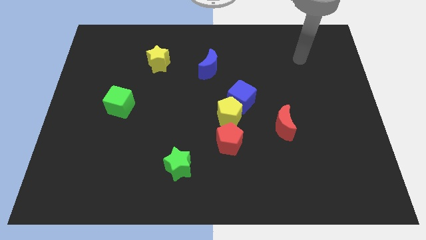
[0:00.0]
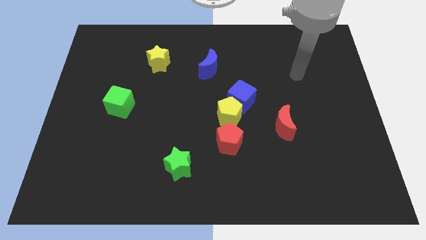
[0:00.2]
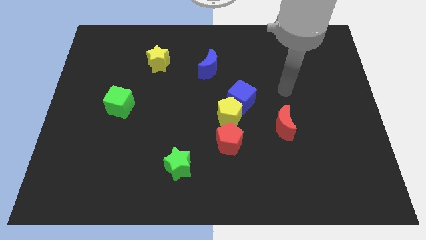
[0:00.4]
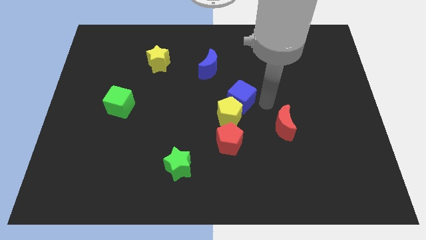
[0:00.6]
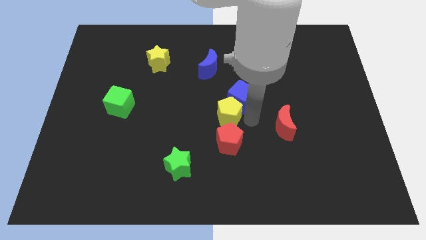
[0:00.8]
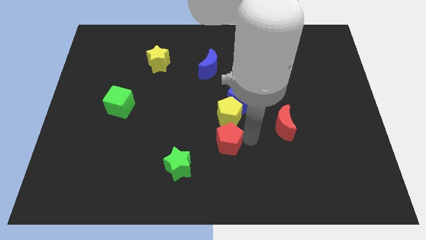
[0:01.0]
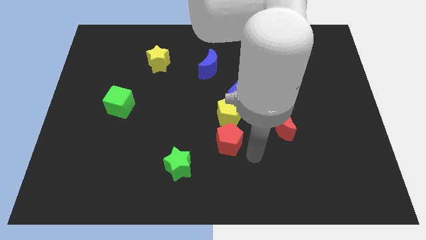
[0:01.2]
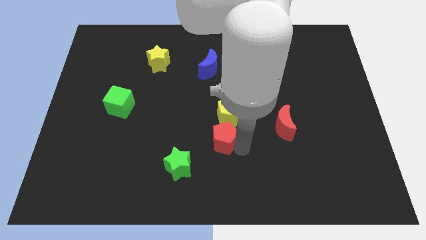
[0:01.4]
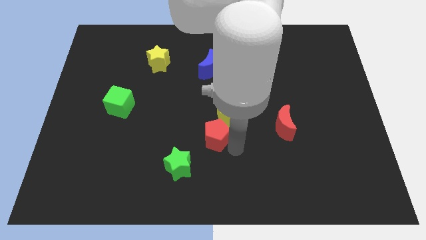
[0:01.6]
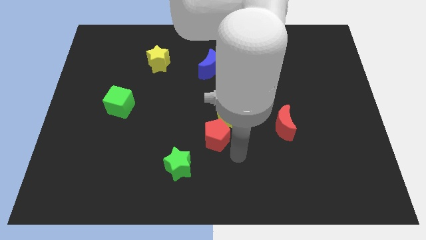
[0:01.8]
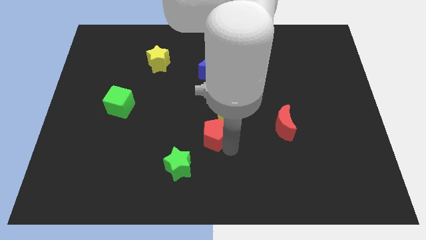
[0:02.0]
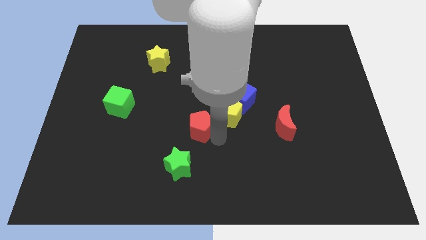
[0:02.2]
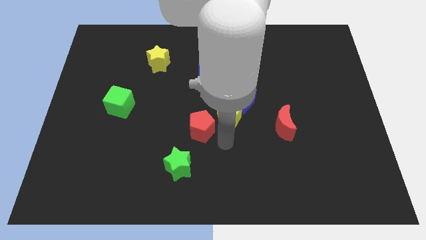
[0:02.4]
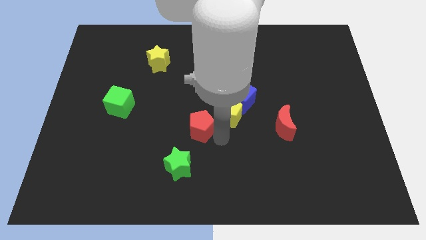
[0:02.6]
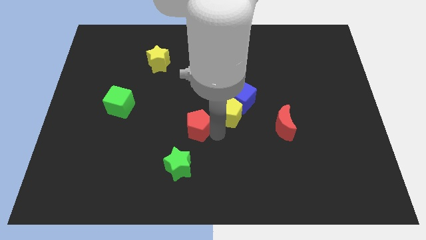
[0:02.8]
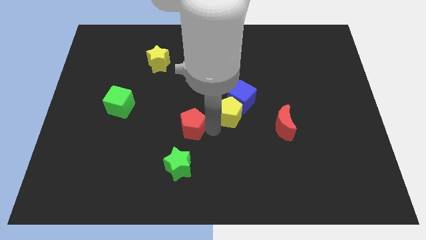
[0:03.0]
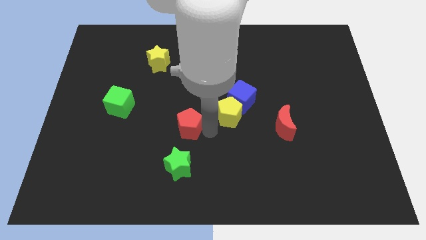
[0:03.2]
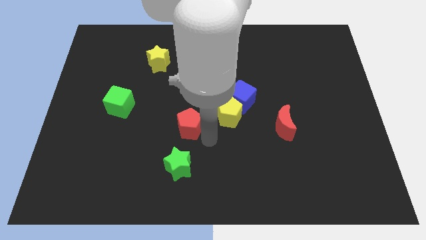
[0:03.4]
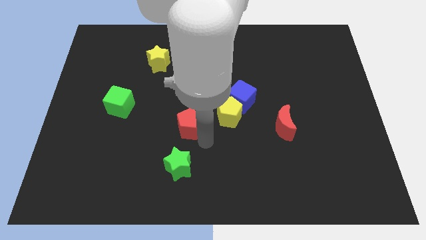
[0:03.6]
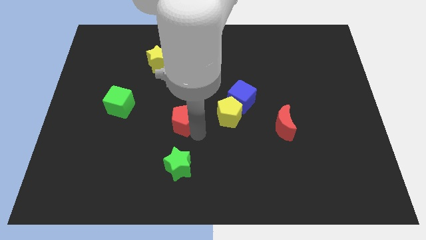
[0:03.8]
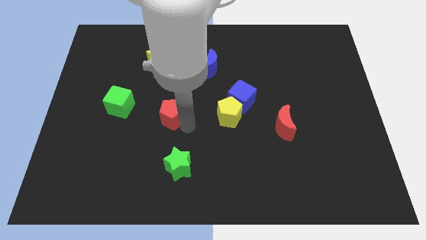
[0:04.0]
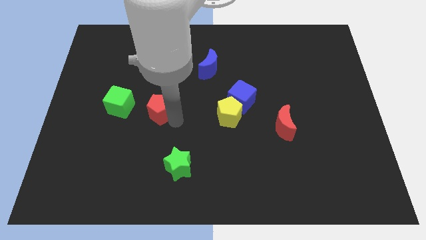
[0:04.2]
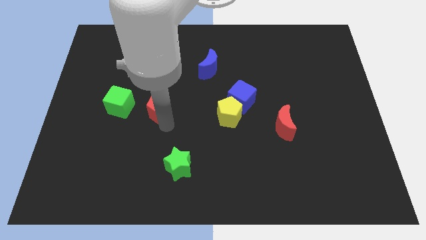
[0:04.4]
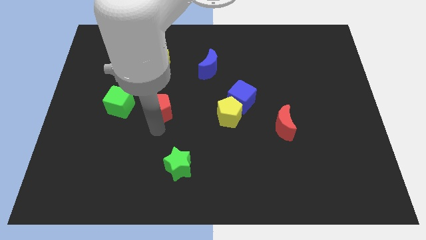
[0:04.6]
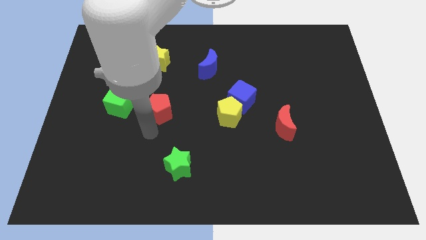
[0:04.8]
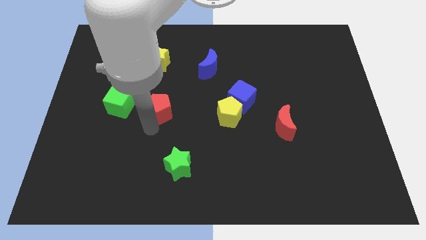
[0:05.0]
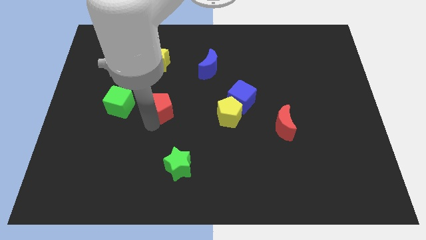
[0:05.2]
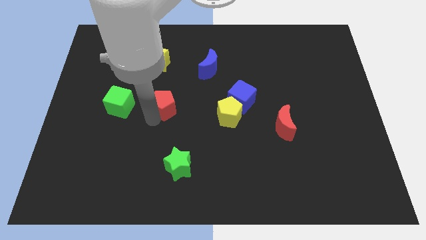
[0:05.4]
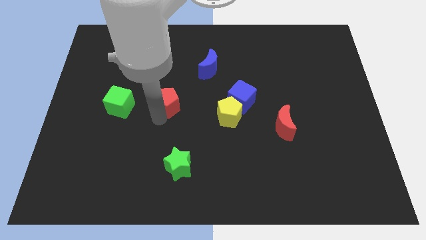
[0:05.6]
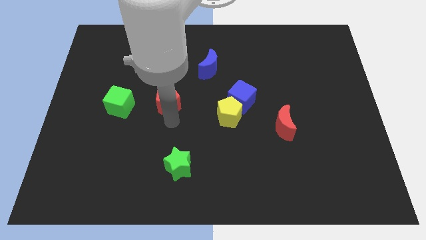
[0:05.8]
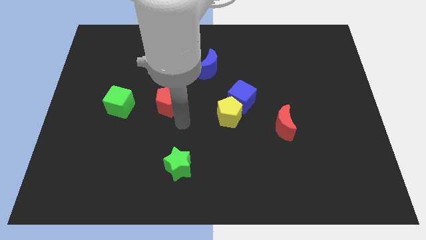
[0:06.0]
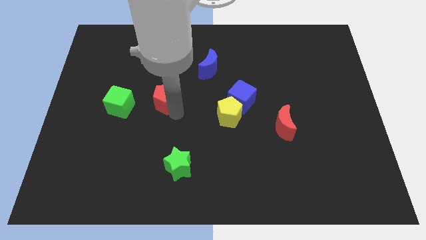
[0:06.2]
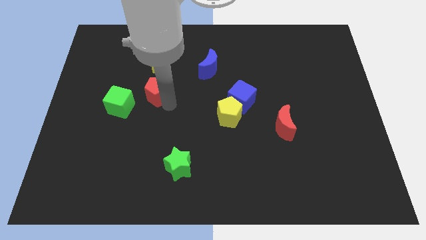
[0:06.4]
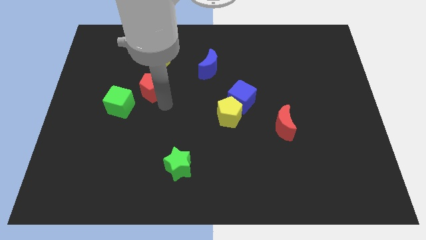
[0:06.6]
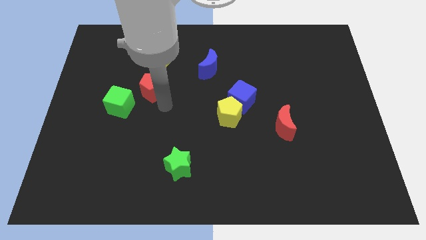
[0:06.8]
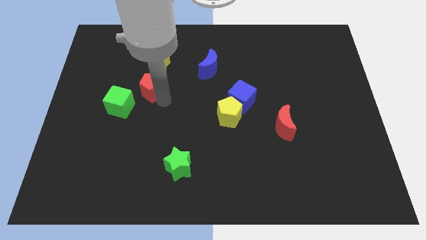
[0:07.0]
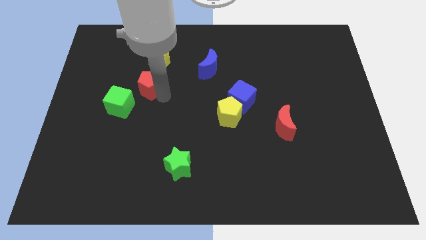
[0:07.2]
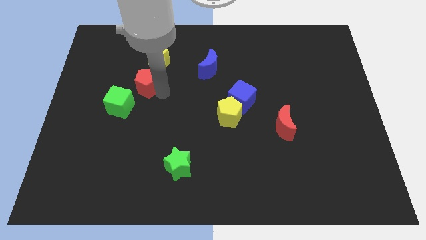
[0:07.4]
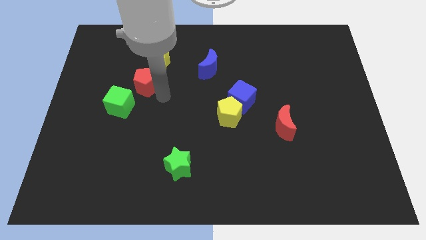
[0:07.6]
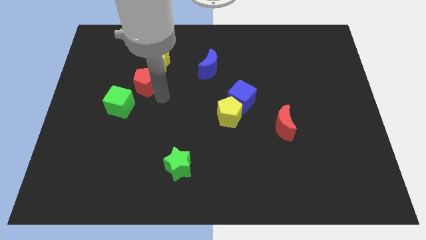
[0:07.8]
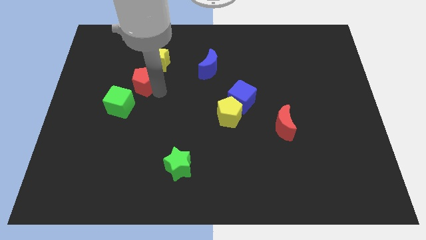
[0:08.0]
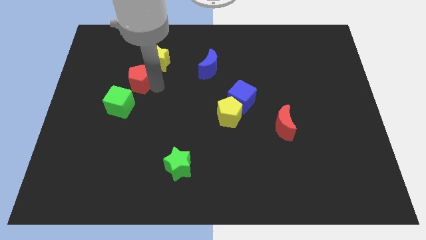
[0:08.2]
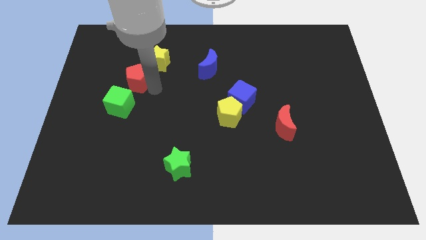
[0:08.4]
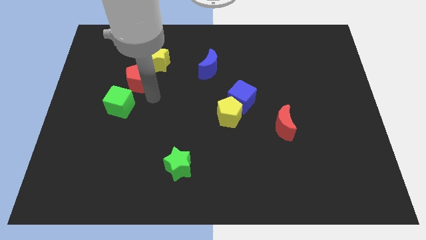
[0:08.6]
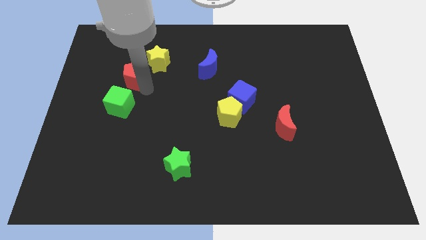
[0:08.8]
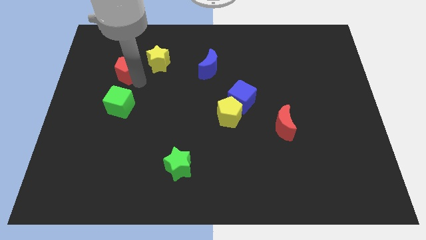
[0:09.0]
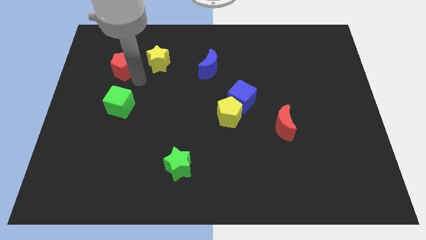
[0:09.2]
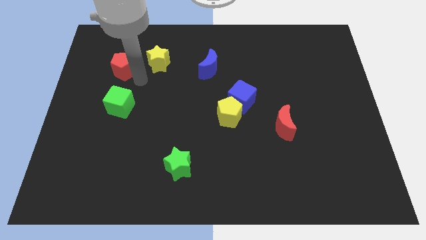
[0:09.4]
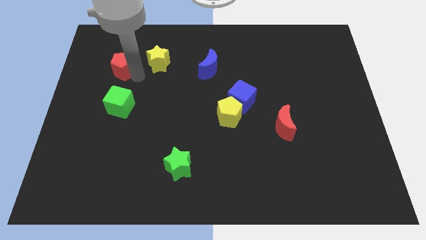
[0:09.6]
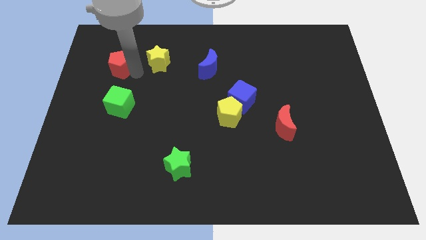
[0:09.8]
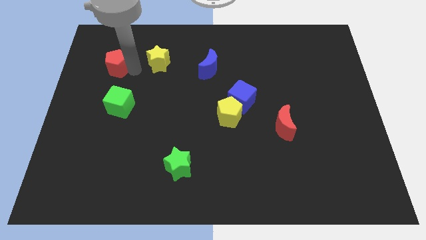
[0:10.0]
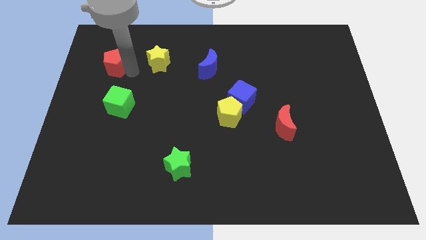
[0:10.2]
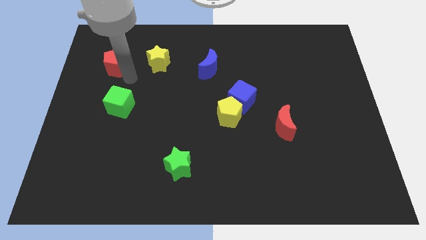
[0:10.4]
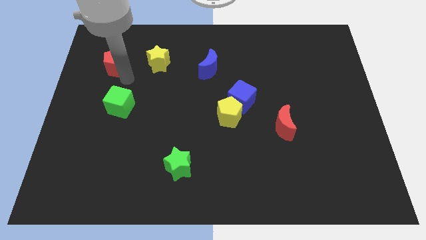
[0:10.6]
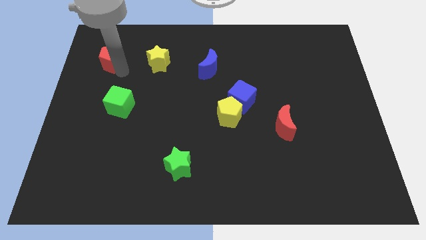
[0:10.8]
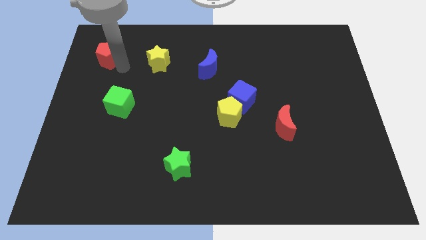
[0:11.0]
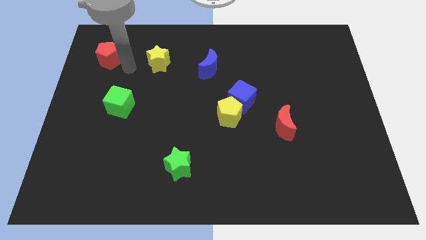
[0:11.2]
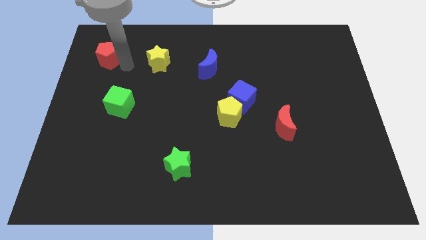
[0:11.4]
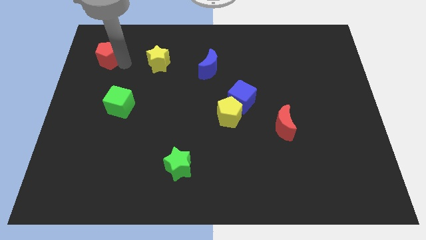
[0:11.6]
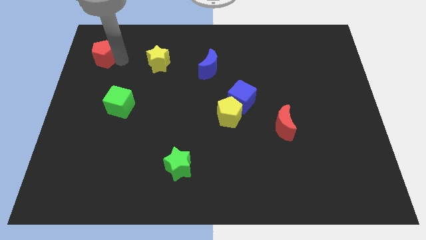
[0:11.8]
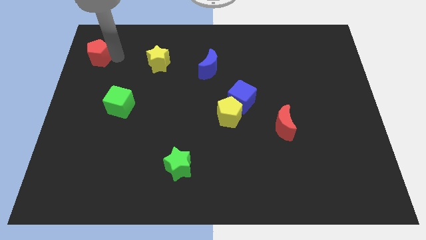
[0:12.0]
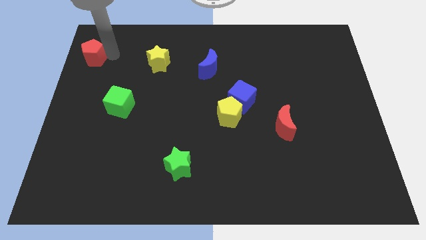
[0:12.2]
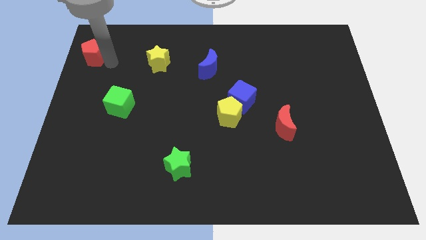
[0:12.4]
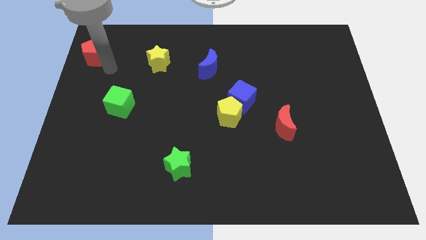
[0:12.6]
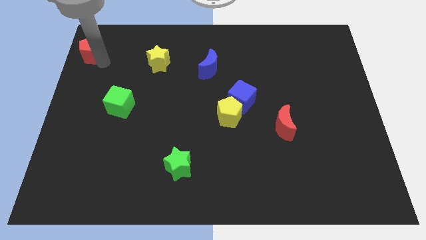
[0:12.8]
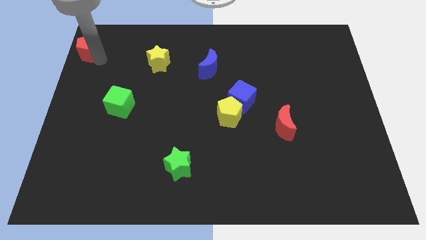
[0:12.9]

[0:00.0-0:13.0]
push the red pentagon to the top left
